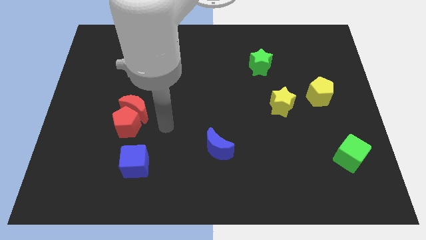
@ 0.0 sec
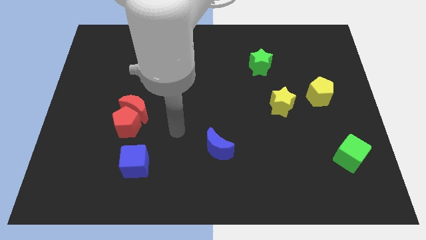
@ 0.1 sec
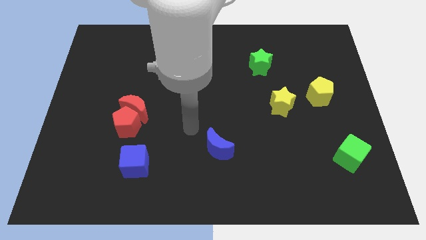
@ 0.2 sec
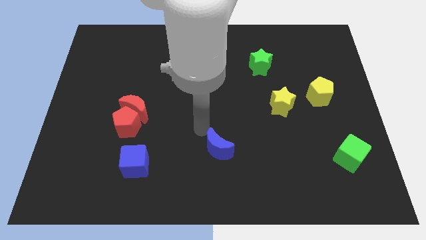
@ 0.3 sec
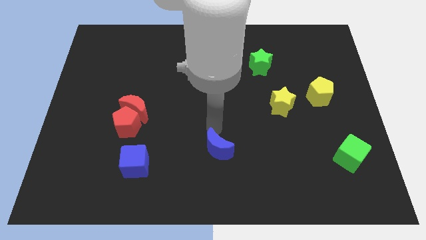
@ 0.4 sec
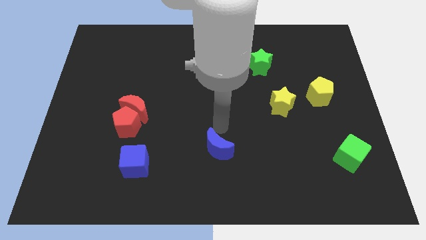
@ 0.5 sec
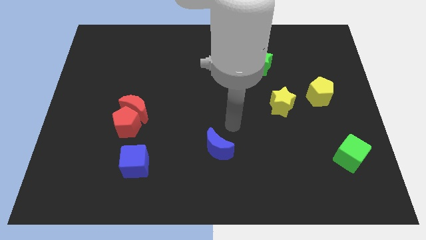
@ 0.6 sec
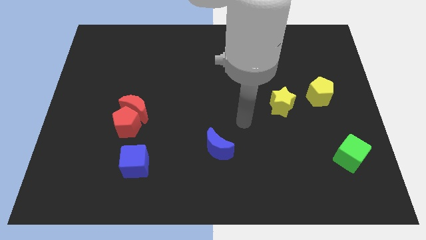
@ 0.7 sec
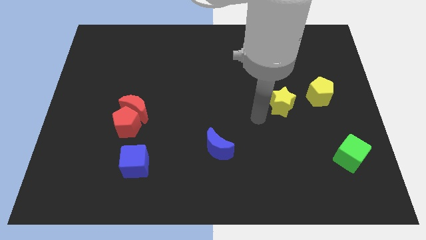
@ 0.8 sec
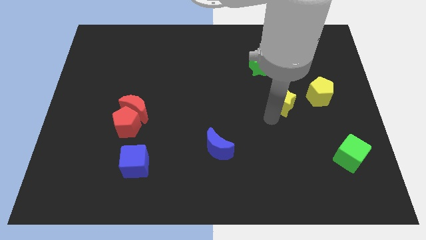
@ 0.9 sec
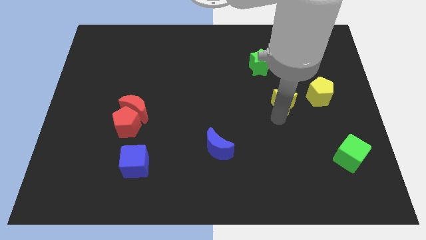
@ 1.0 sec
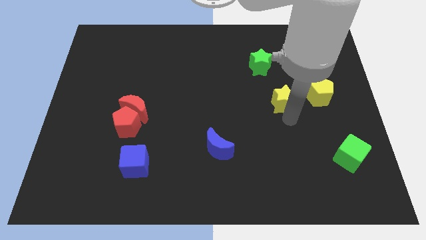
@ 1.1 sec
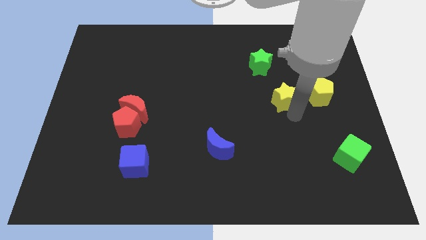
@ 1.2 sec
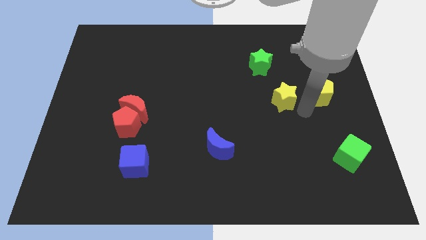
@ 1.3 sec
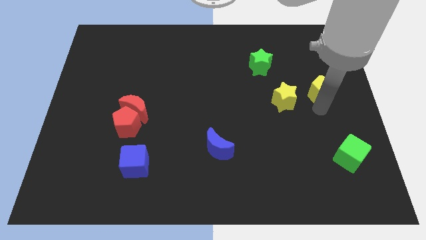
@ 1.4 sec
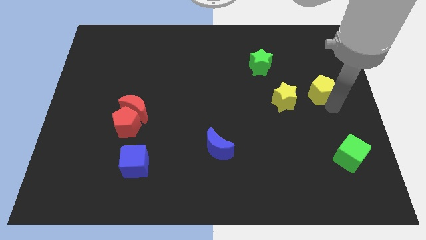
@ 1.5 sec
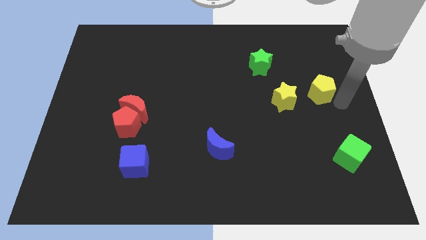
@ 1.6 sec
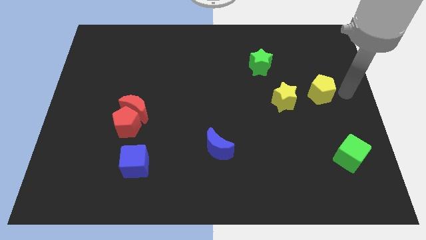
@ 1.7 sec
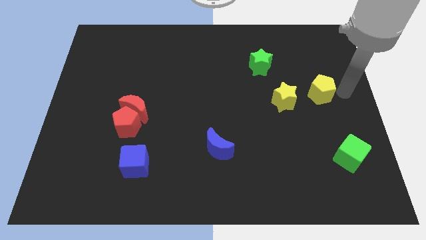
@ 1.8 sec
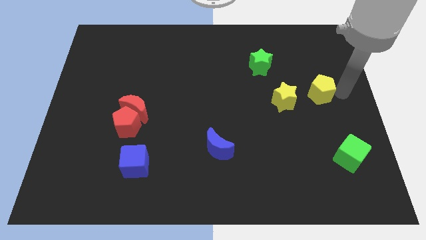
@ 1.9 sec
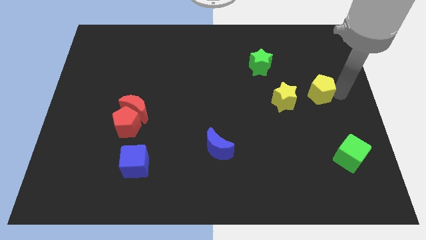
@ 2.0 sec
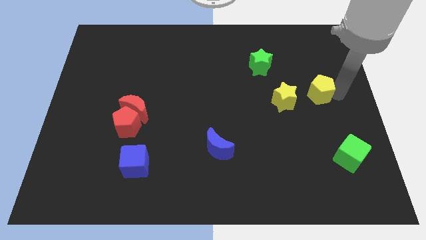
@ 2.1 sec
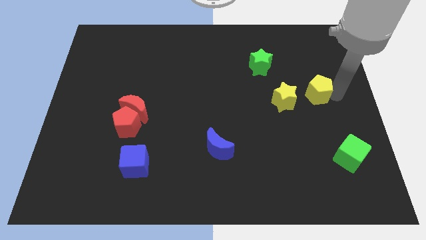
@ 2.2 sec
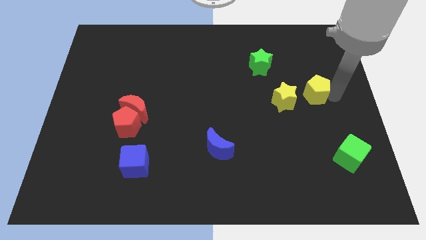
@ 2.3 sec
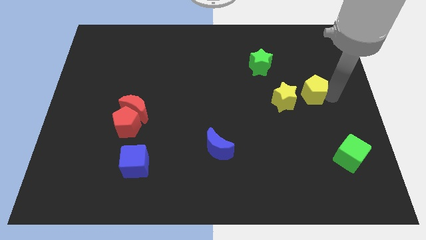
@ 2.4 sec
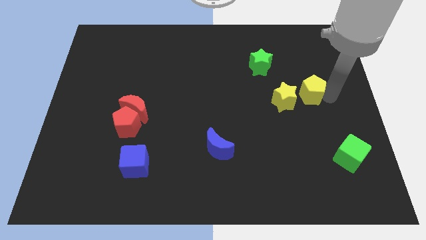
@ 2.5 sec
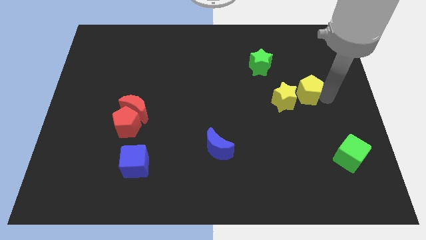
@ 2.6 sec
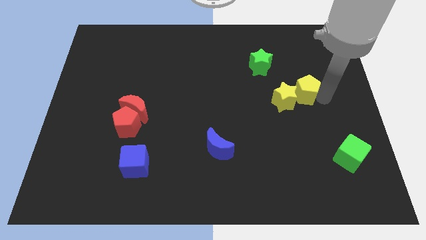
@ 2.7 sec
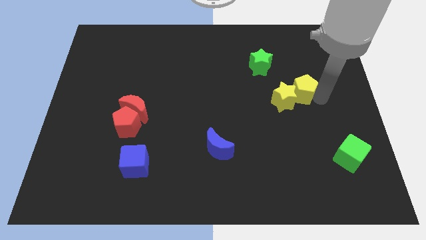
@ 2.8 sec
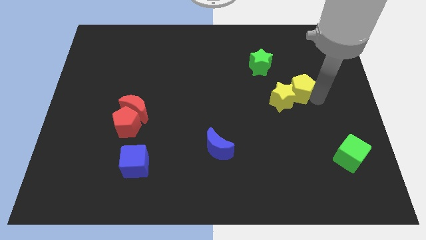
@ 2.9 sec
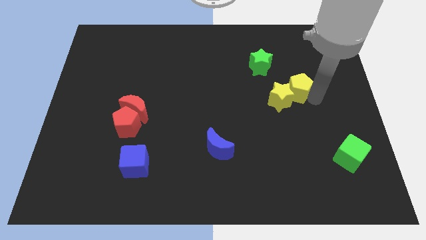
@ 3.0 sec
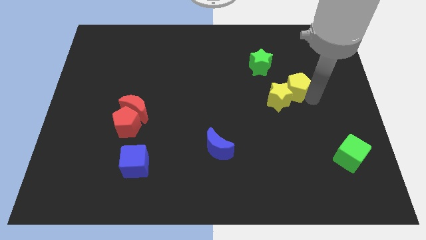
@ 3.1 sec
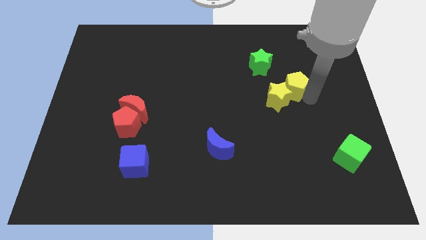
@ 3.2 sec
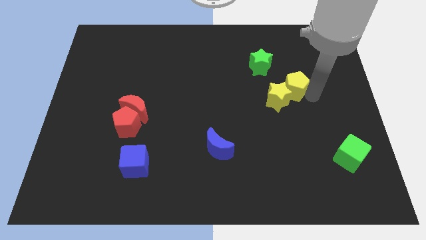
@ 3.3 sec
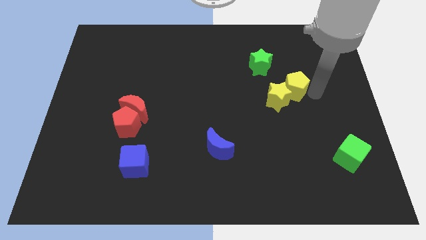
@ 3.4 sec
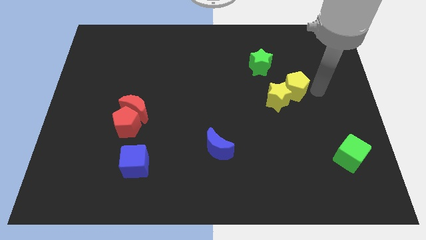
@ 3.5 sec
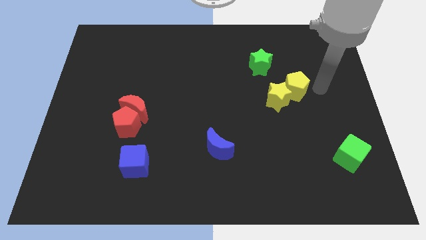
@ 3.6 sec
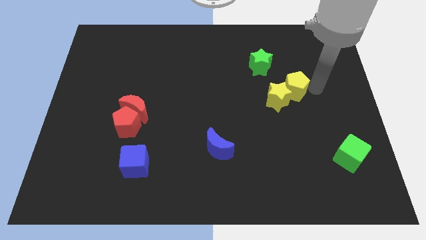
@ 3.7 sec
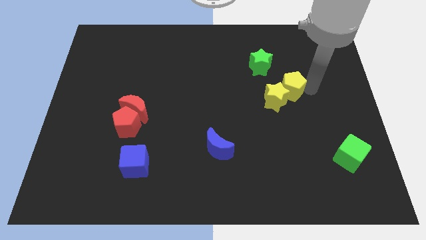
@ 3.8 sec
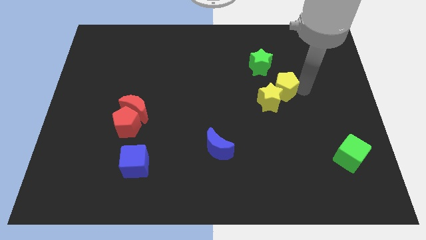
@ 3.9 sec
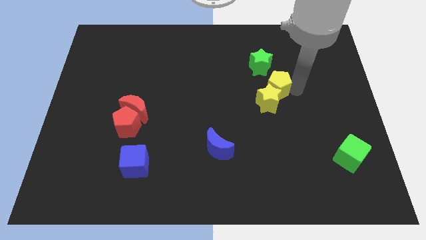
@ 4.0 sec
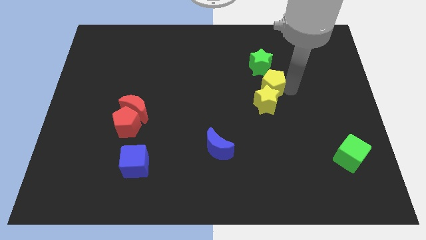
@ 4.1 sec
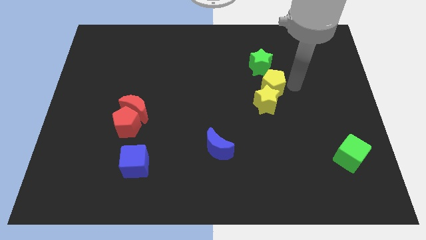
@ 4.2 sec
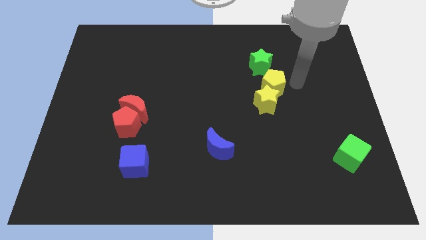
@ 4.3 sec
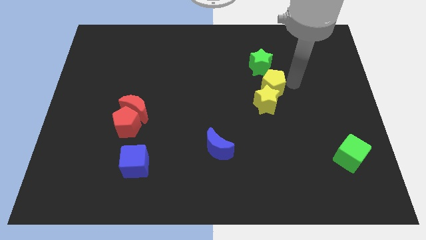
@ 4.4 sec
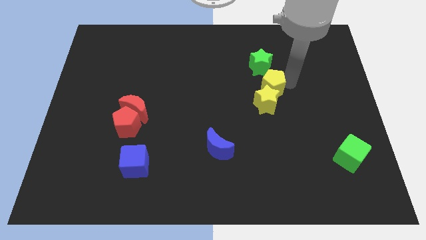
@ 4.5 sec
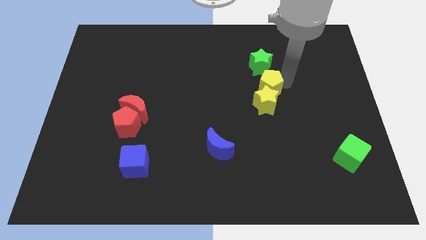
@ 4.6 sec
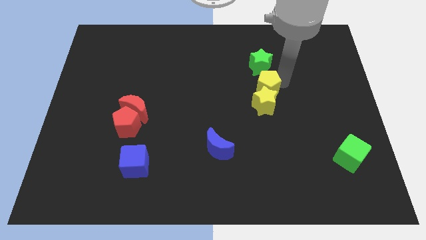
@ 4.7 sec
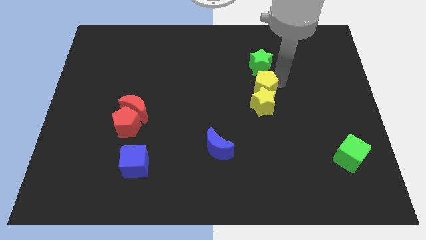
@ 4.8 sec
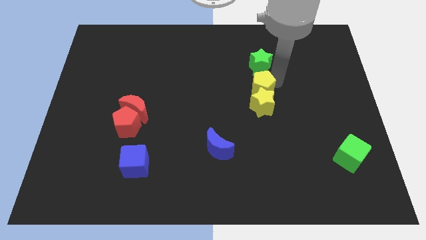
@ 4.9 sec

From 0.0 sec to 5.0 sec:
push the yellow pentagon to the center of the board

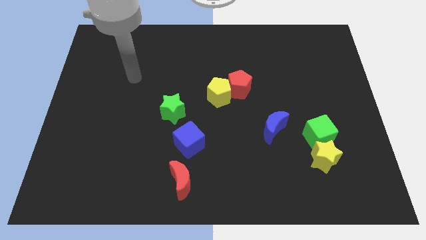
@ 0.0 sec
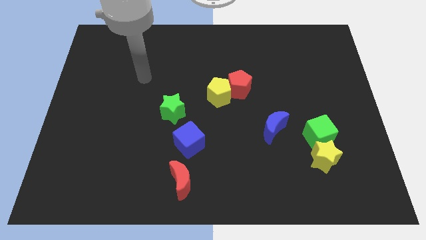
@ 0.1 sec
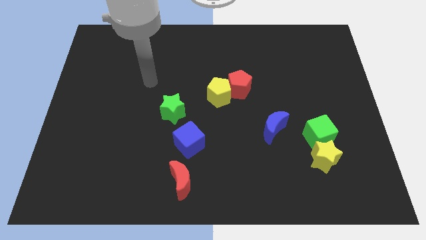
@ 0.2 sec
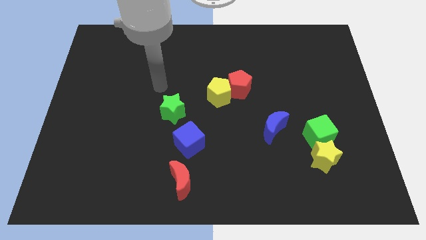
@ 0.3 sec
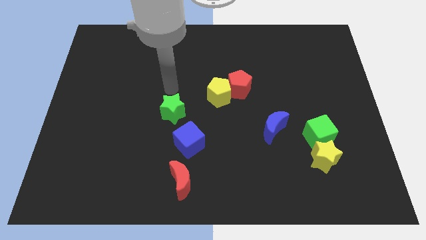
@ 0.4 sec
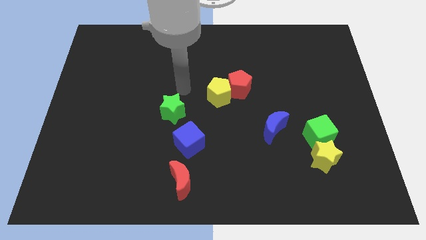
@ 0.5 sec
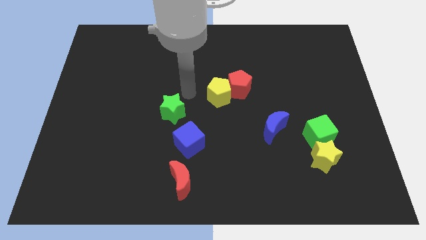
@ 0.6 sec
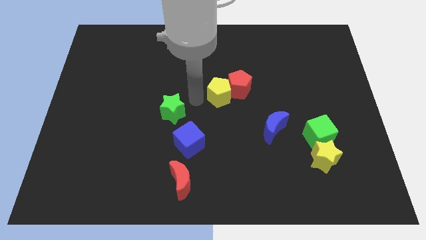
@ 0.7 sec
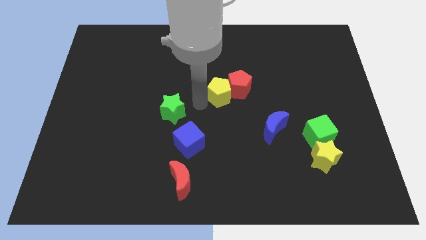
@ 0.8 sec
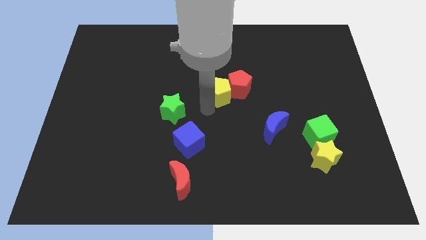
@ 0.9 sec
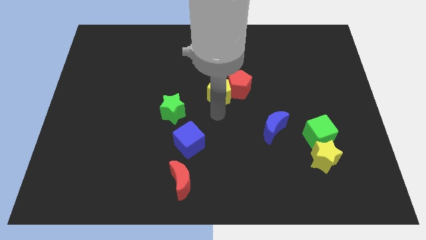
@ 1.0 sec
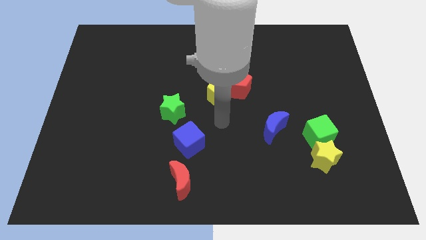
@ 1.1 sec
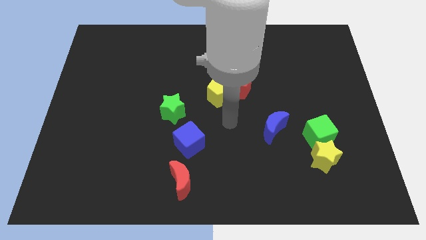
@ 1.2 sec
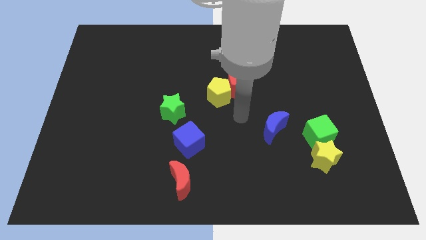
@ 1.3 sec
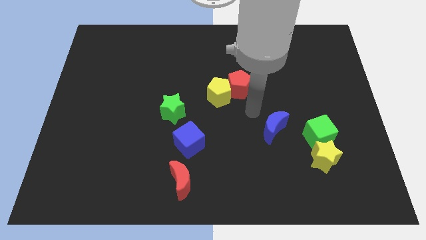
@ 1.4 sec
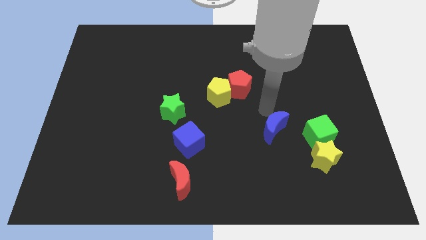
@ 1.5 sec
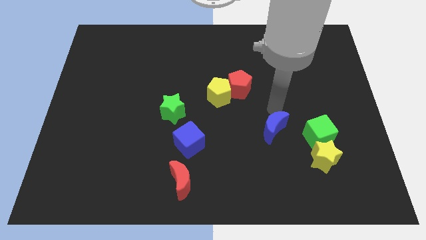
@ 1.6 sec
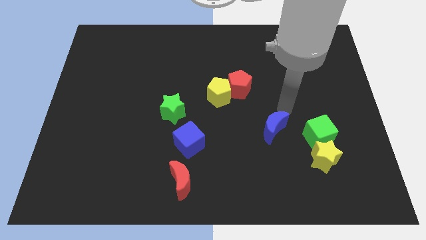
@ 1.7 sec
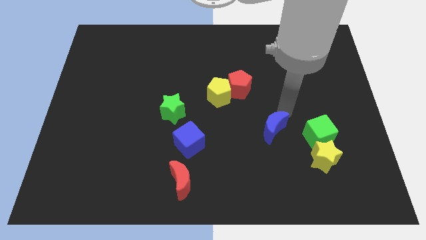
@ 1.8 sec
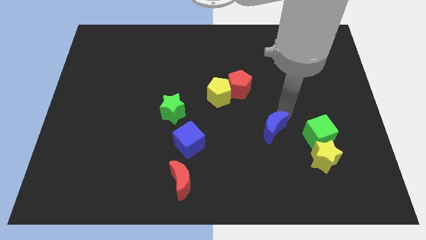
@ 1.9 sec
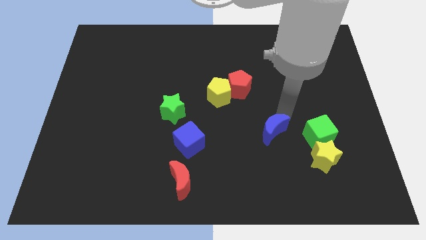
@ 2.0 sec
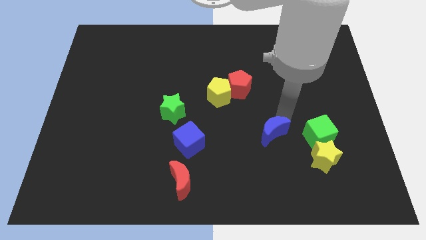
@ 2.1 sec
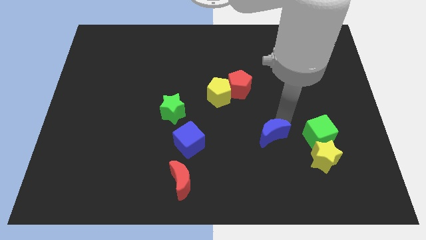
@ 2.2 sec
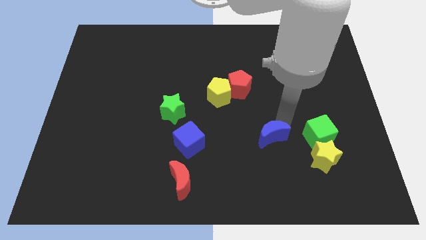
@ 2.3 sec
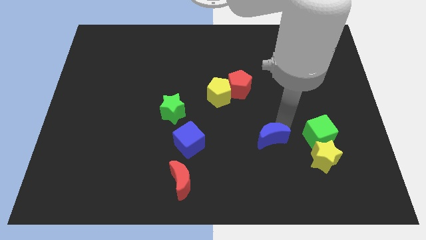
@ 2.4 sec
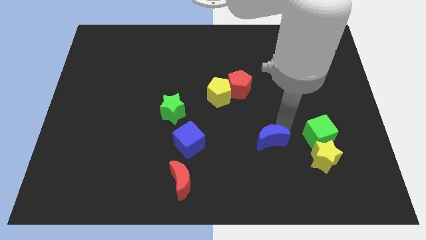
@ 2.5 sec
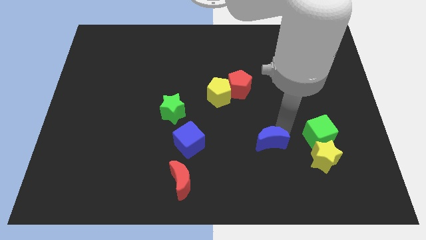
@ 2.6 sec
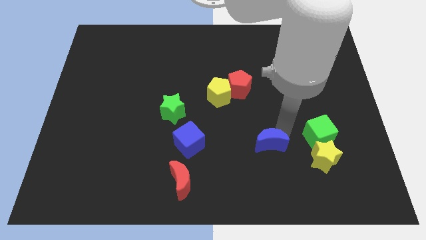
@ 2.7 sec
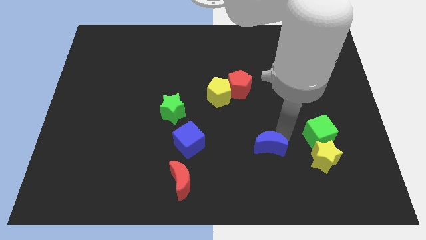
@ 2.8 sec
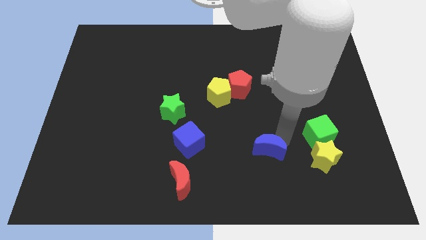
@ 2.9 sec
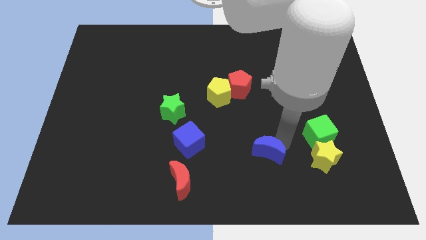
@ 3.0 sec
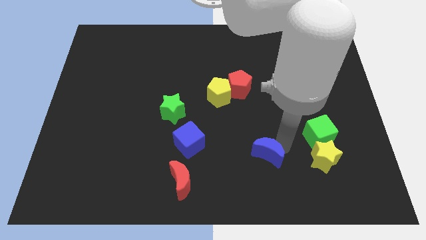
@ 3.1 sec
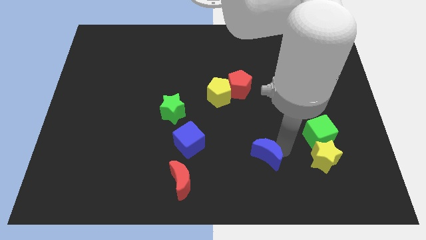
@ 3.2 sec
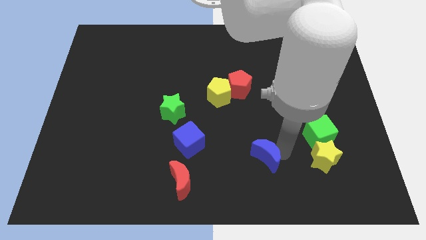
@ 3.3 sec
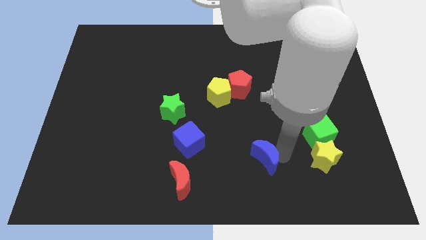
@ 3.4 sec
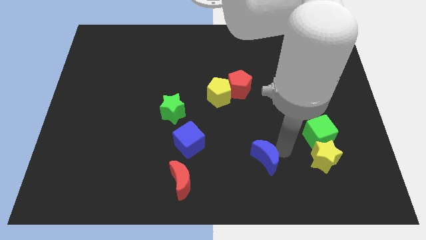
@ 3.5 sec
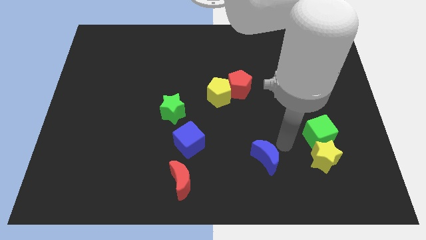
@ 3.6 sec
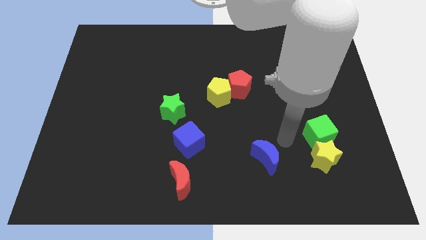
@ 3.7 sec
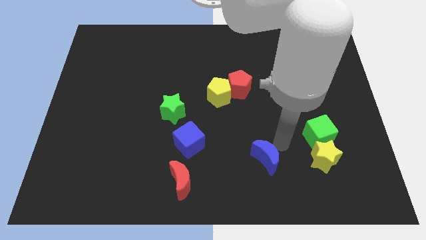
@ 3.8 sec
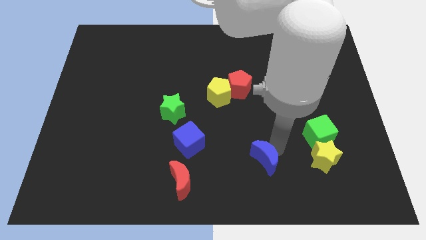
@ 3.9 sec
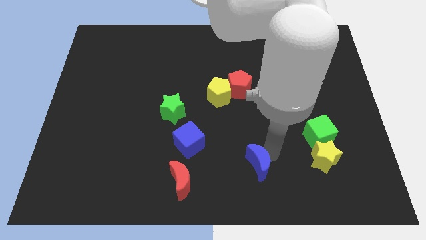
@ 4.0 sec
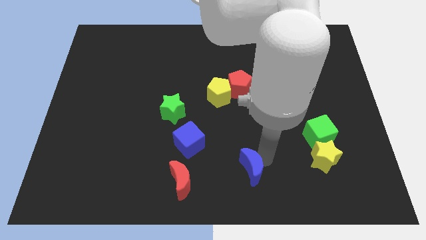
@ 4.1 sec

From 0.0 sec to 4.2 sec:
slide the blue moon to the bottom
